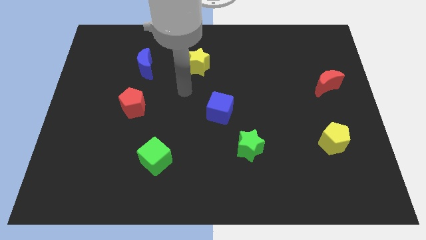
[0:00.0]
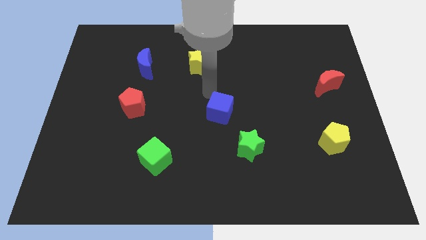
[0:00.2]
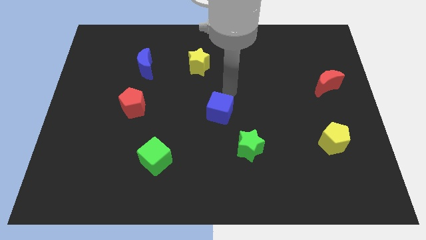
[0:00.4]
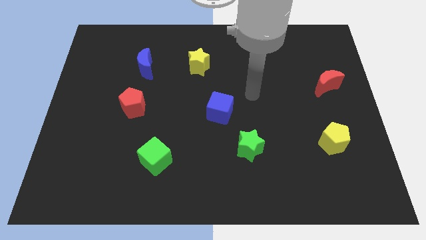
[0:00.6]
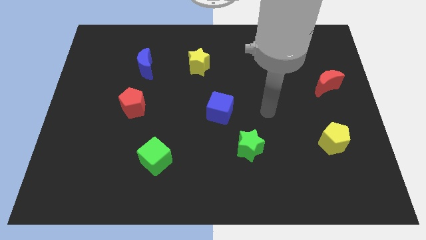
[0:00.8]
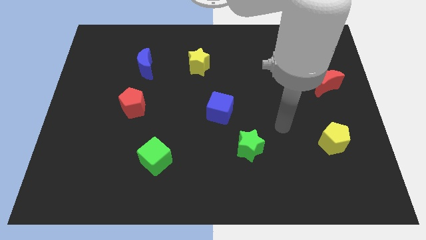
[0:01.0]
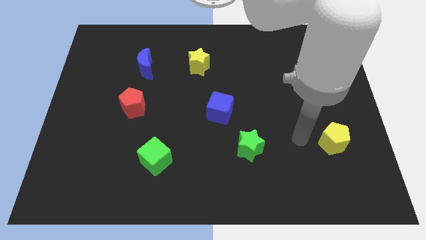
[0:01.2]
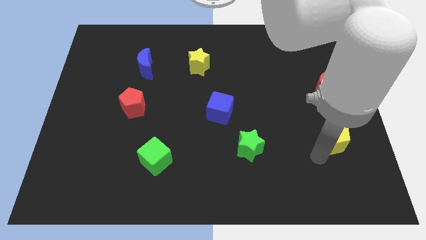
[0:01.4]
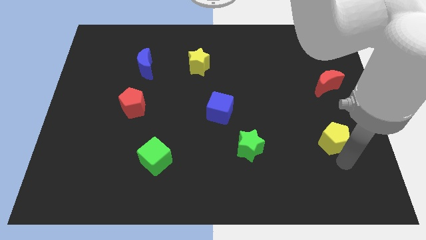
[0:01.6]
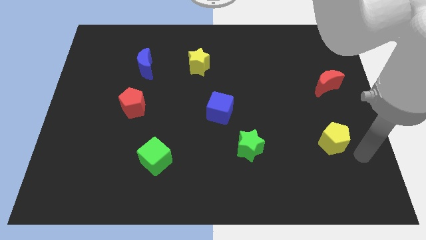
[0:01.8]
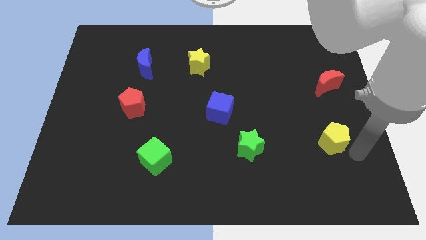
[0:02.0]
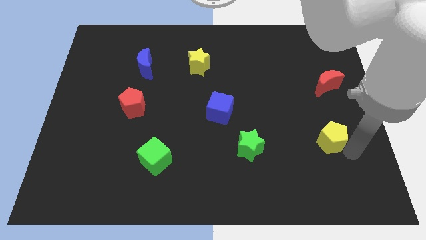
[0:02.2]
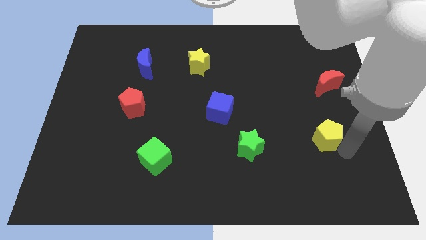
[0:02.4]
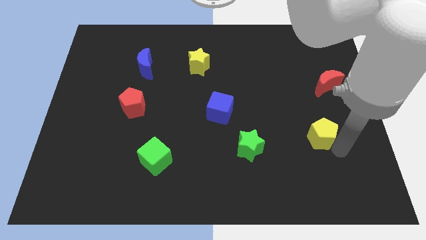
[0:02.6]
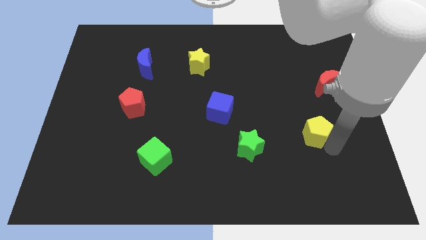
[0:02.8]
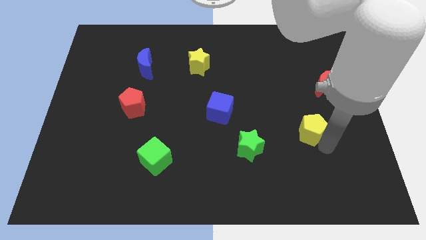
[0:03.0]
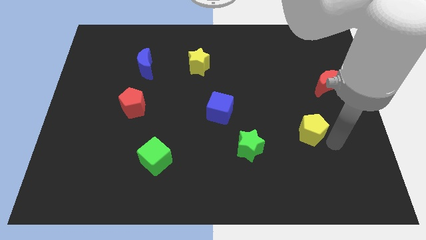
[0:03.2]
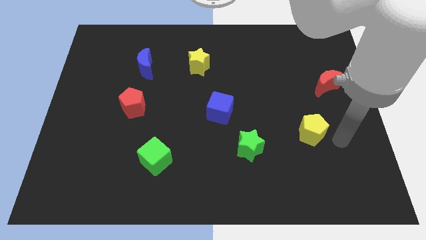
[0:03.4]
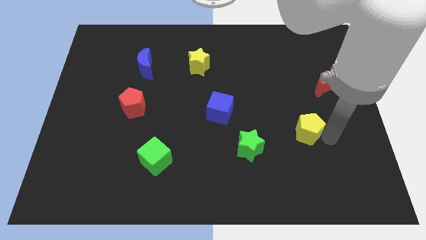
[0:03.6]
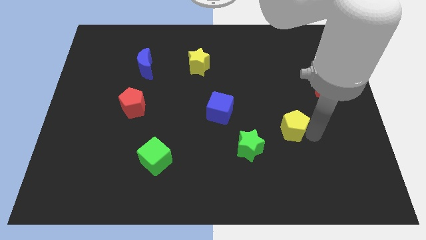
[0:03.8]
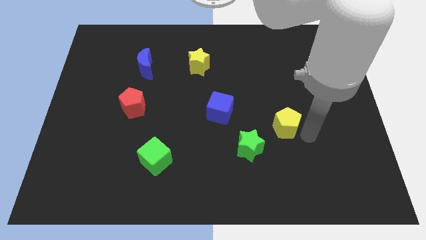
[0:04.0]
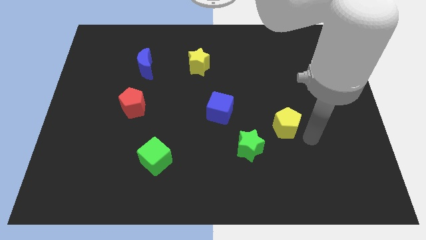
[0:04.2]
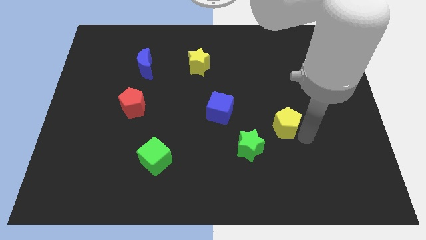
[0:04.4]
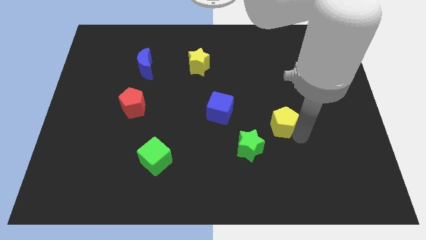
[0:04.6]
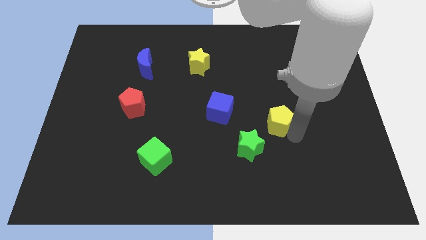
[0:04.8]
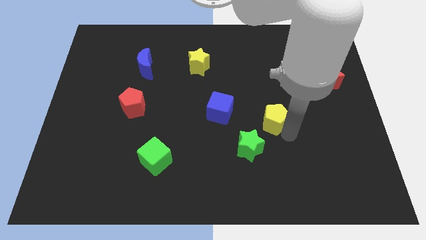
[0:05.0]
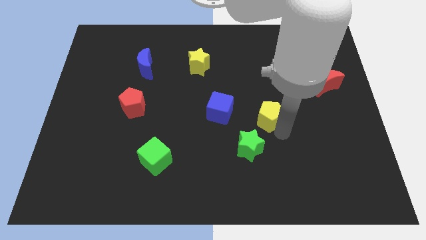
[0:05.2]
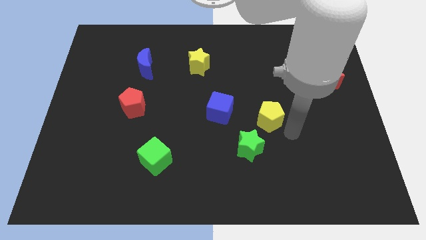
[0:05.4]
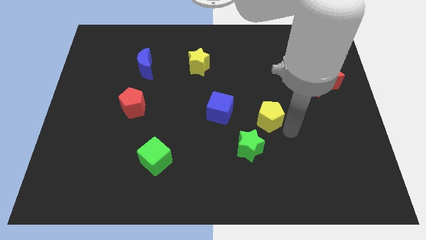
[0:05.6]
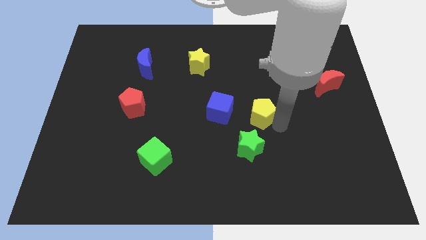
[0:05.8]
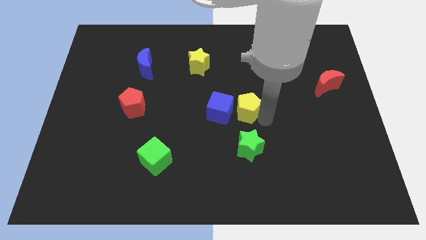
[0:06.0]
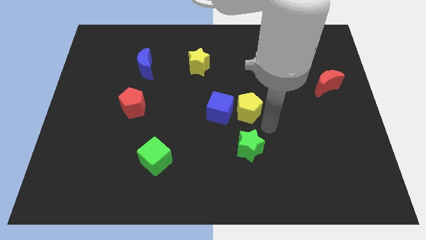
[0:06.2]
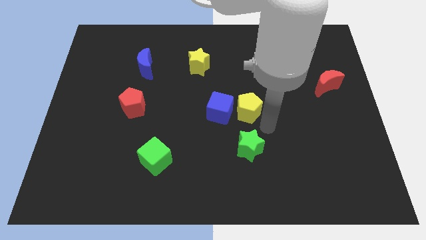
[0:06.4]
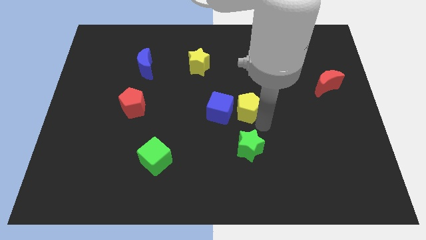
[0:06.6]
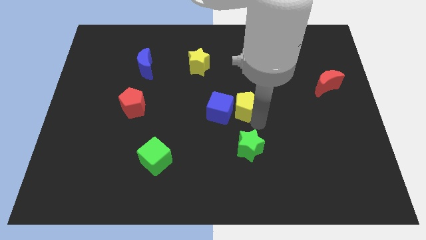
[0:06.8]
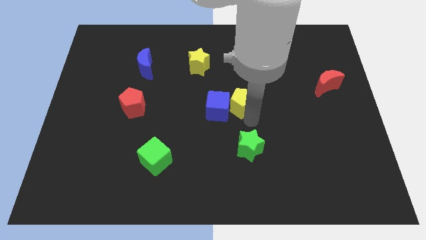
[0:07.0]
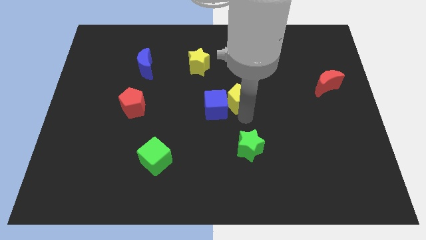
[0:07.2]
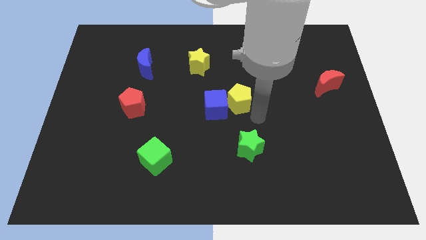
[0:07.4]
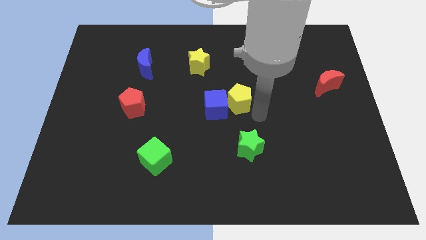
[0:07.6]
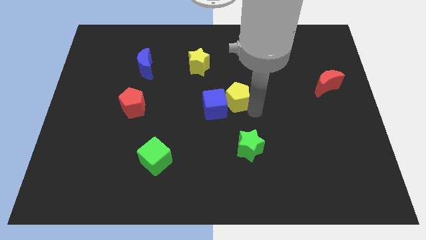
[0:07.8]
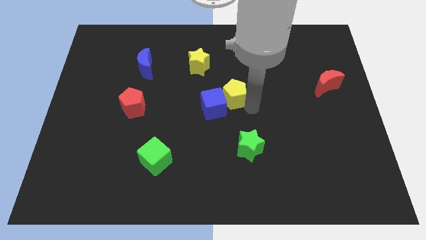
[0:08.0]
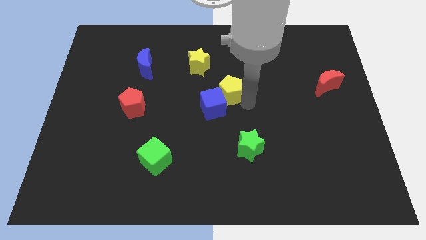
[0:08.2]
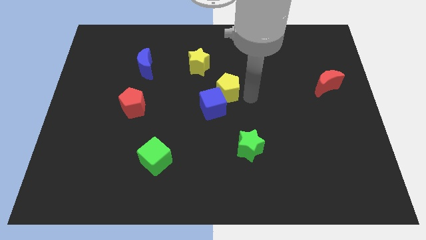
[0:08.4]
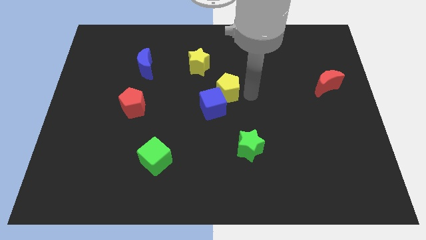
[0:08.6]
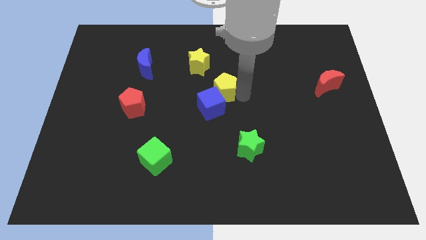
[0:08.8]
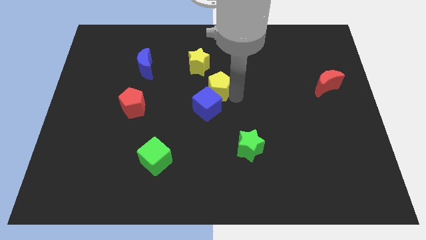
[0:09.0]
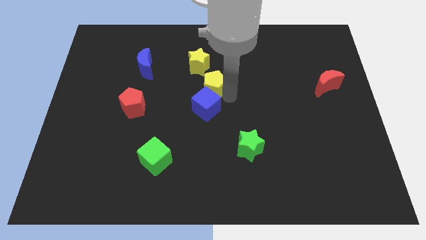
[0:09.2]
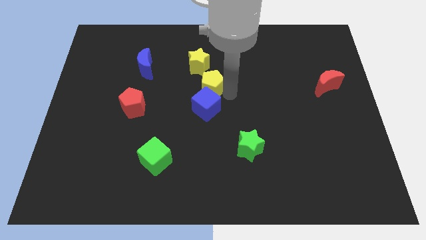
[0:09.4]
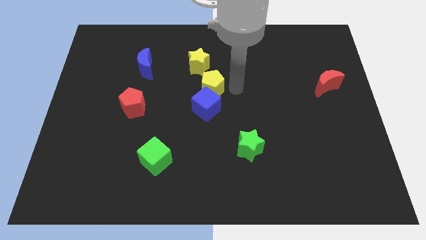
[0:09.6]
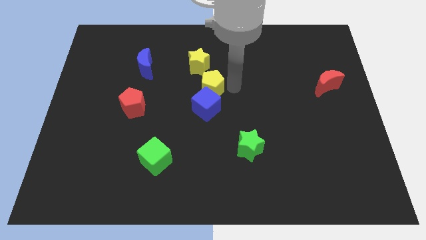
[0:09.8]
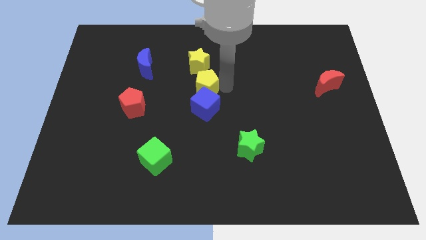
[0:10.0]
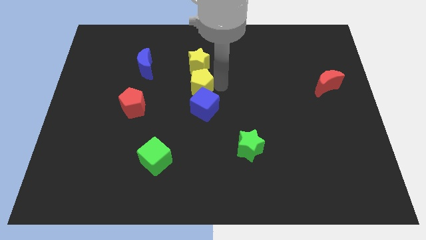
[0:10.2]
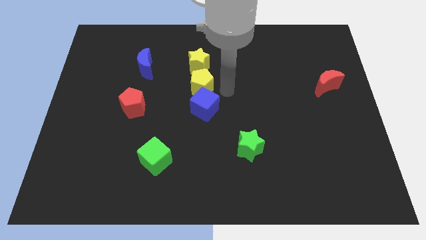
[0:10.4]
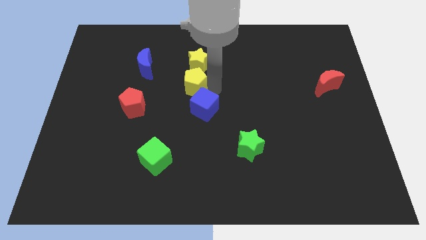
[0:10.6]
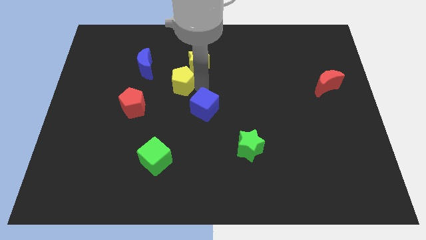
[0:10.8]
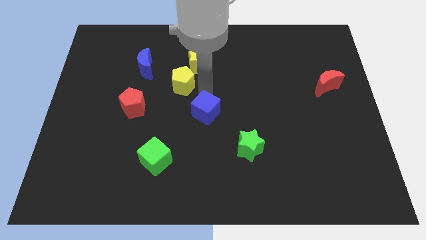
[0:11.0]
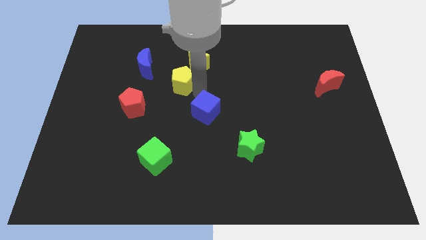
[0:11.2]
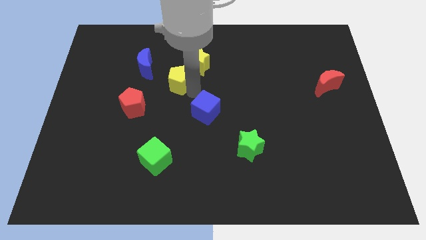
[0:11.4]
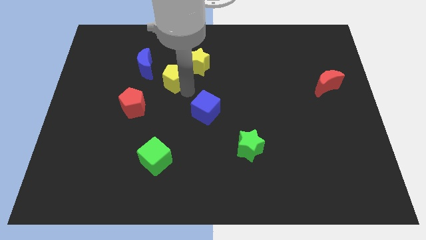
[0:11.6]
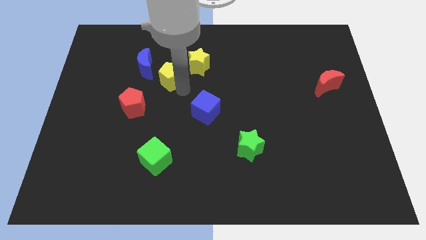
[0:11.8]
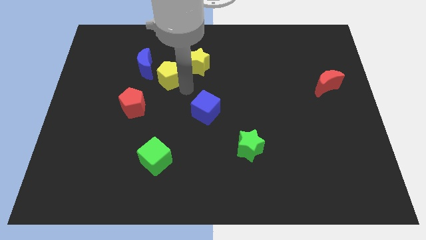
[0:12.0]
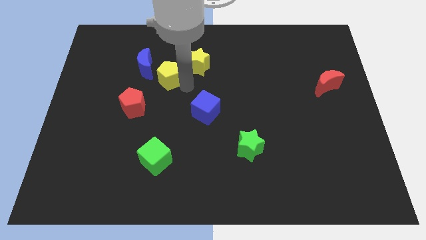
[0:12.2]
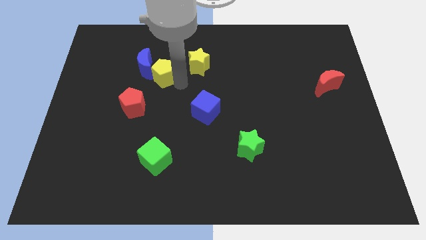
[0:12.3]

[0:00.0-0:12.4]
put the yellow pentagon to the blue moon

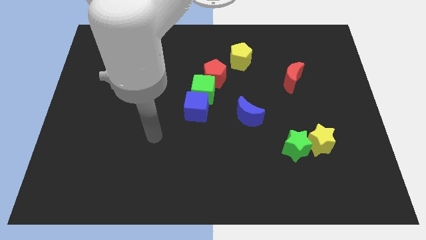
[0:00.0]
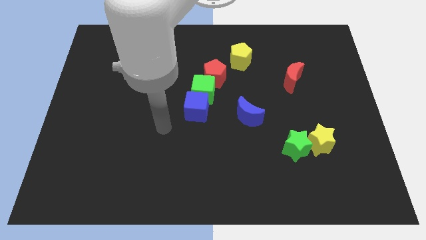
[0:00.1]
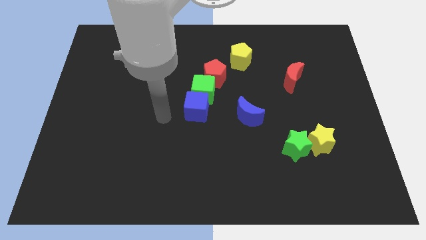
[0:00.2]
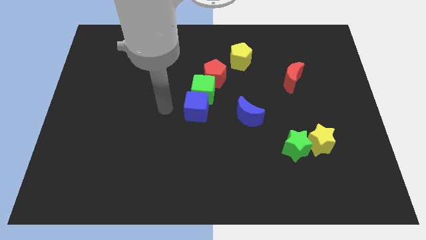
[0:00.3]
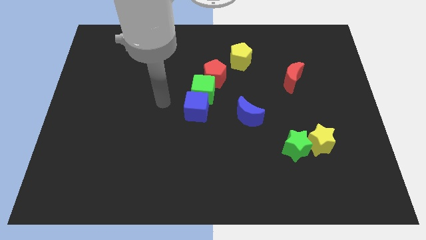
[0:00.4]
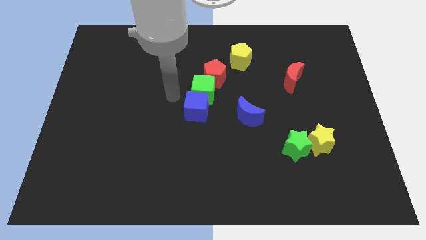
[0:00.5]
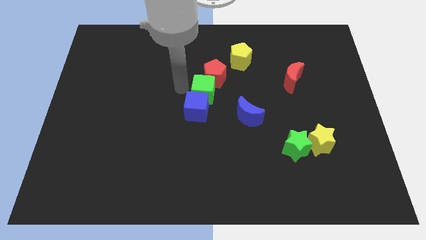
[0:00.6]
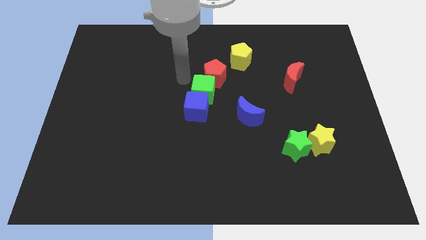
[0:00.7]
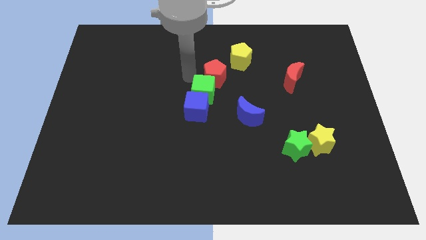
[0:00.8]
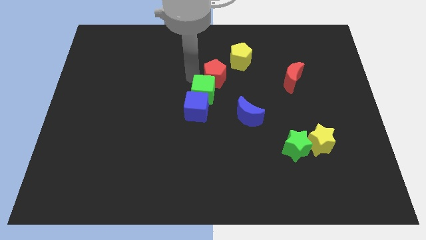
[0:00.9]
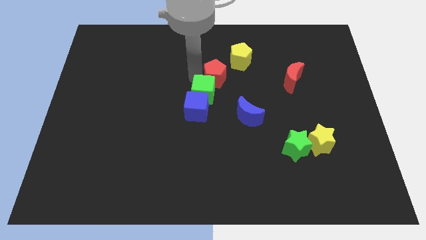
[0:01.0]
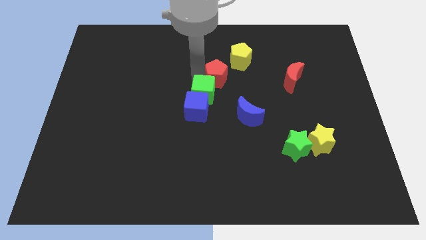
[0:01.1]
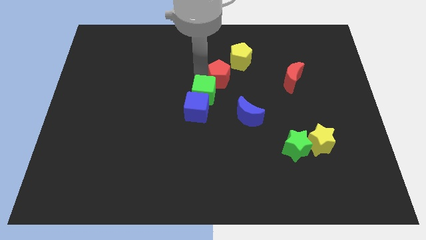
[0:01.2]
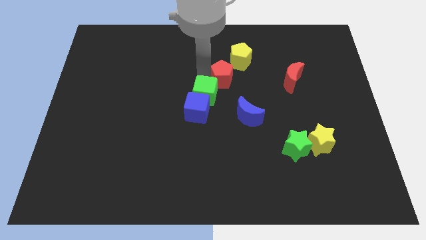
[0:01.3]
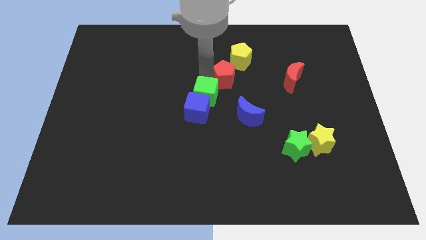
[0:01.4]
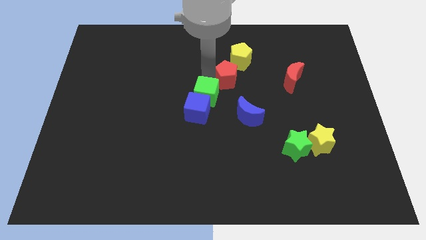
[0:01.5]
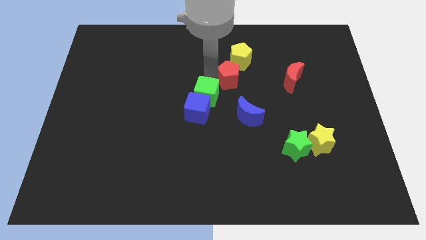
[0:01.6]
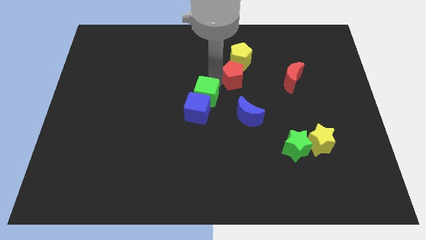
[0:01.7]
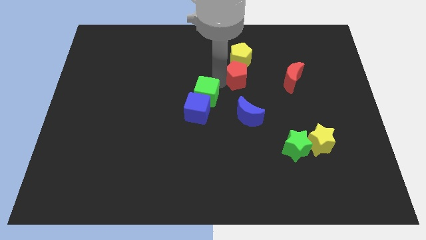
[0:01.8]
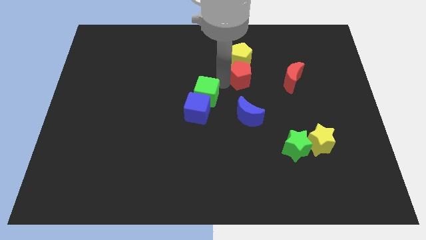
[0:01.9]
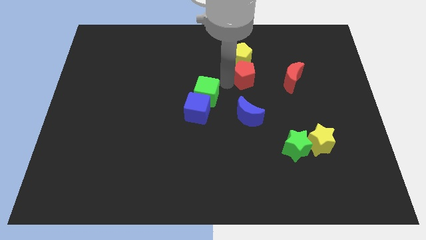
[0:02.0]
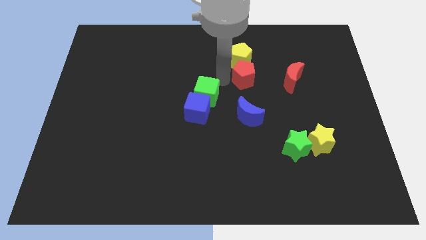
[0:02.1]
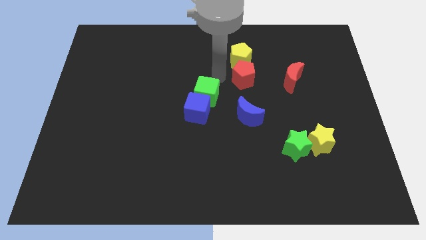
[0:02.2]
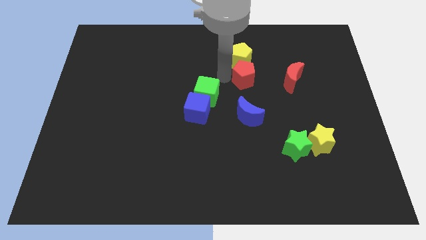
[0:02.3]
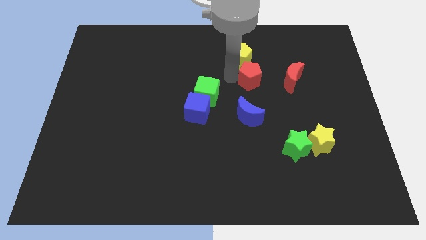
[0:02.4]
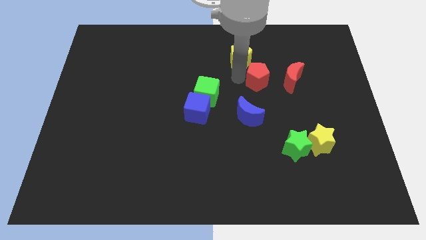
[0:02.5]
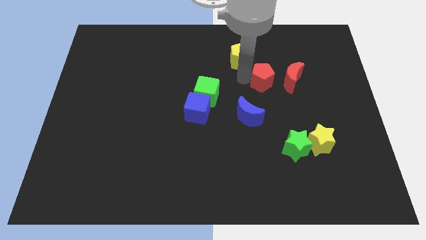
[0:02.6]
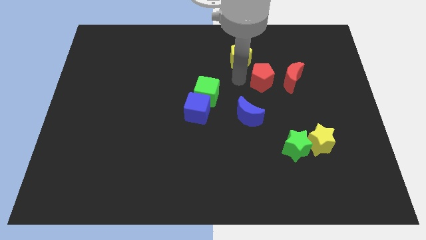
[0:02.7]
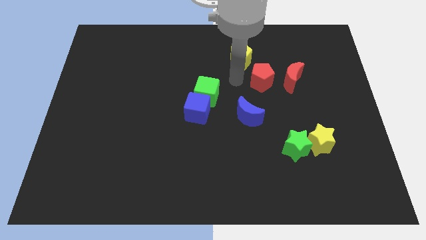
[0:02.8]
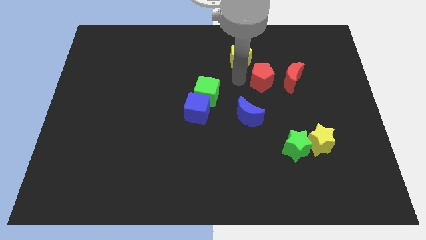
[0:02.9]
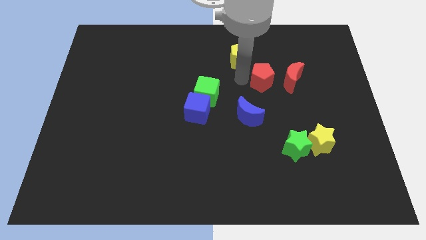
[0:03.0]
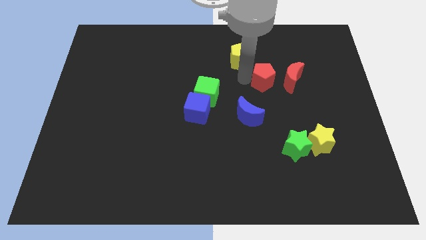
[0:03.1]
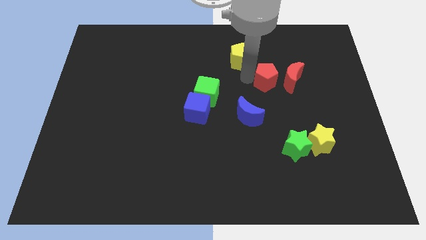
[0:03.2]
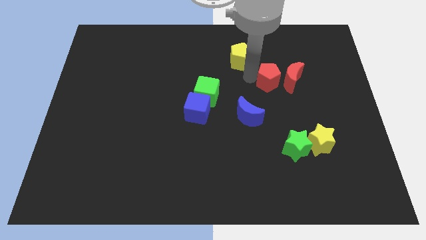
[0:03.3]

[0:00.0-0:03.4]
push the red pentagon to the red moon
